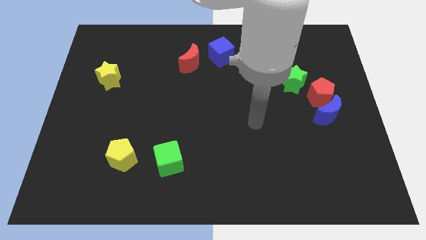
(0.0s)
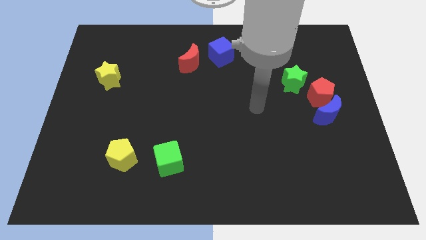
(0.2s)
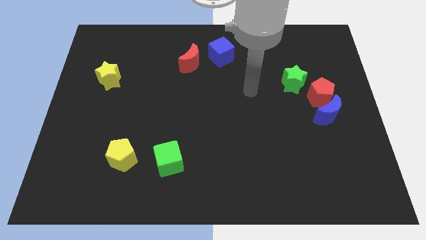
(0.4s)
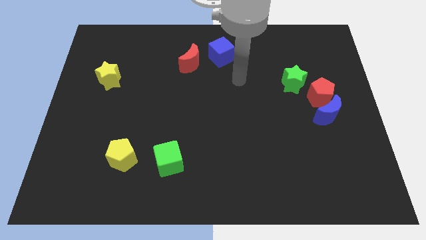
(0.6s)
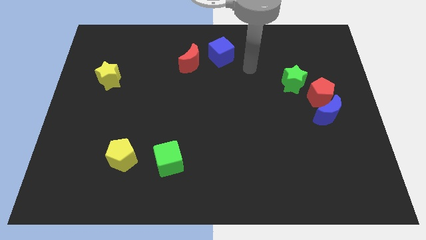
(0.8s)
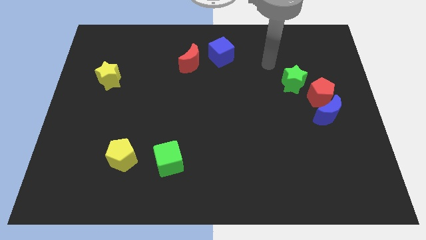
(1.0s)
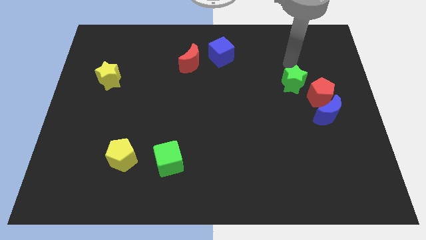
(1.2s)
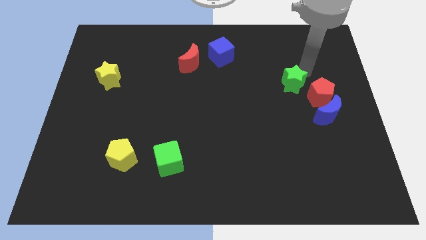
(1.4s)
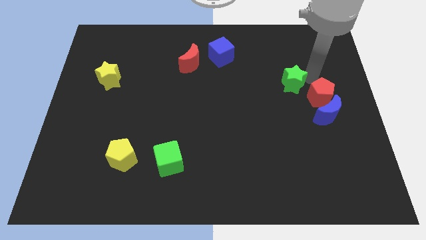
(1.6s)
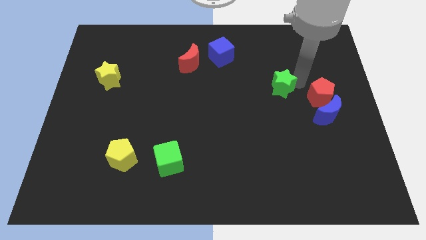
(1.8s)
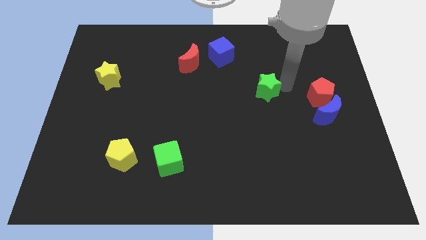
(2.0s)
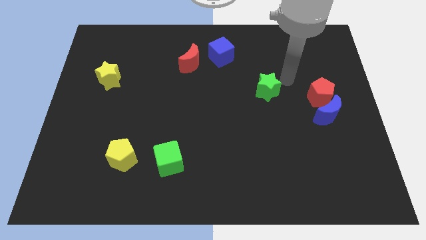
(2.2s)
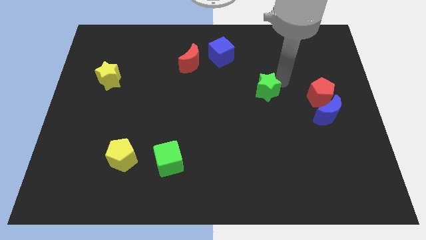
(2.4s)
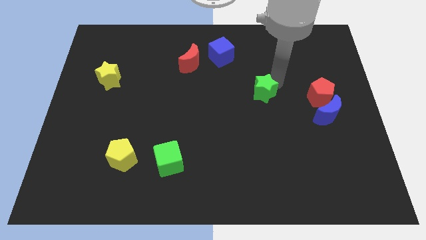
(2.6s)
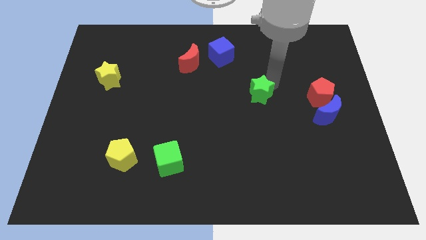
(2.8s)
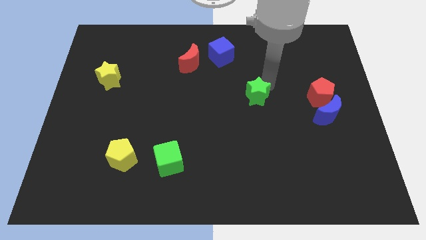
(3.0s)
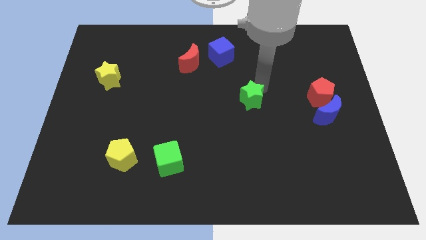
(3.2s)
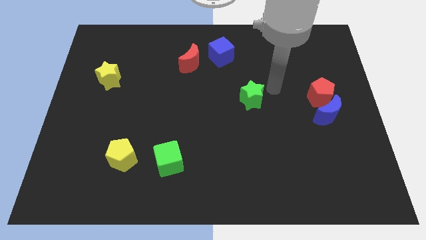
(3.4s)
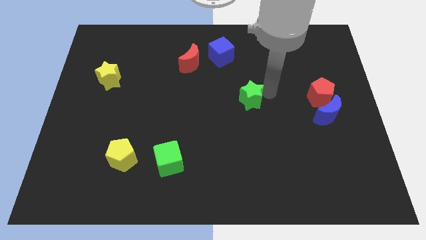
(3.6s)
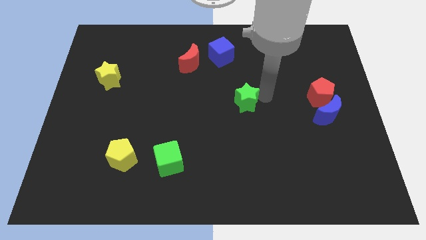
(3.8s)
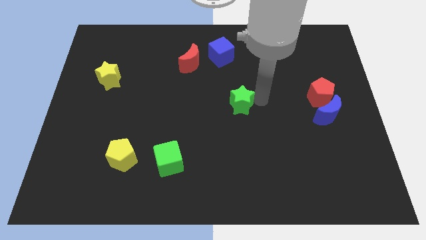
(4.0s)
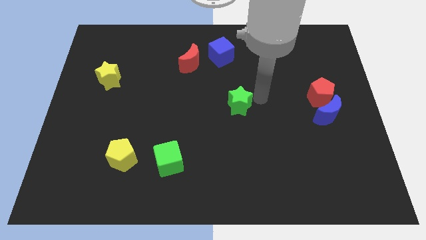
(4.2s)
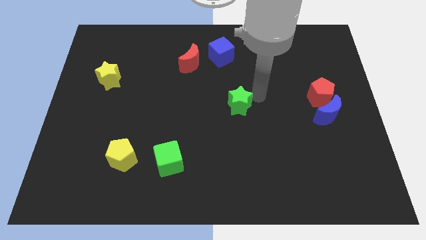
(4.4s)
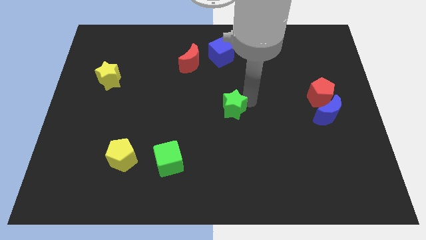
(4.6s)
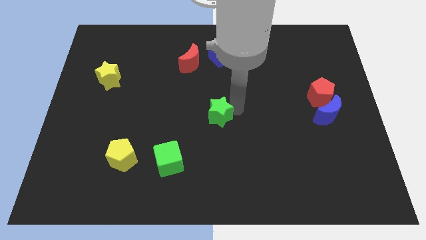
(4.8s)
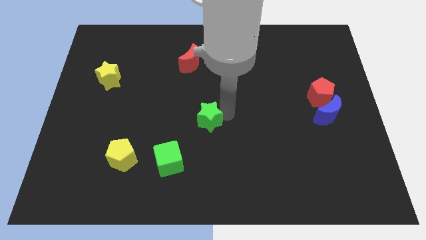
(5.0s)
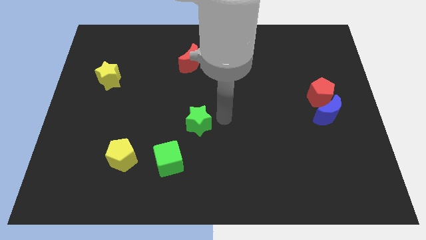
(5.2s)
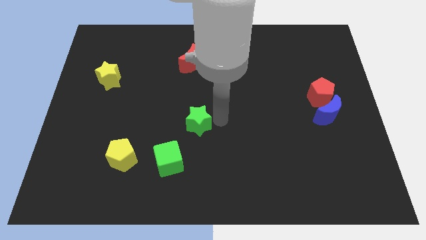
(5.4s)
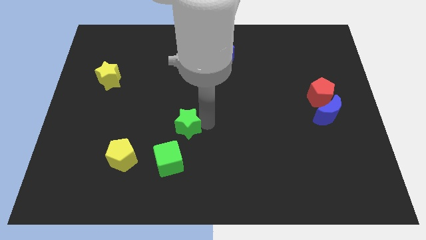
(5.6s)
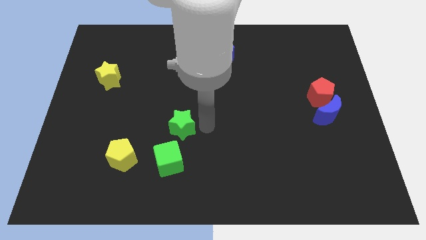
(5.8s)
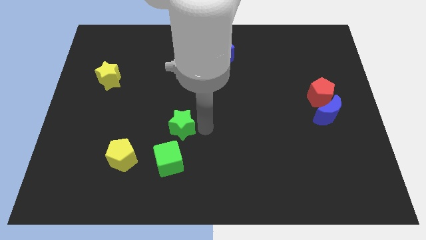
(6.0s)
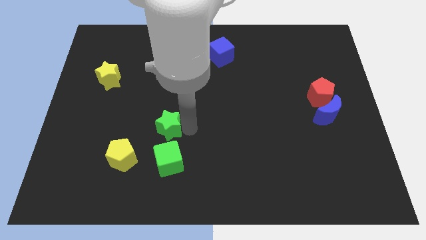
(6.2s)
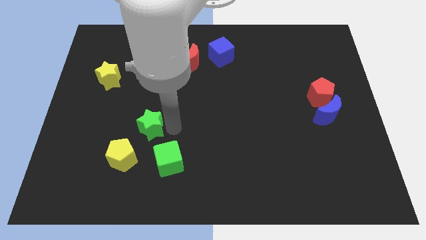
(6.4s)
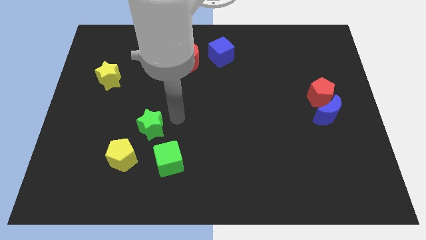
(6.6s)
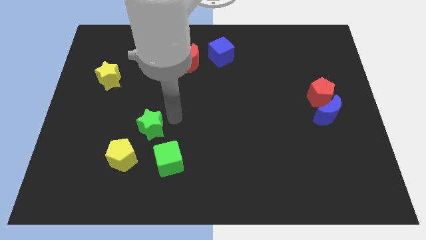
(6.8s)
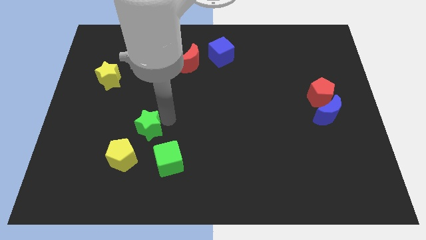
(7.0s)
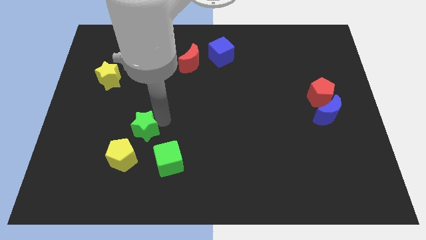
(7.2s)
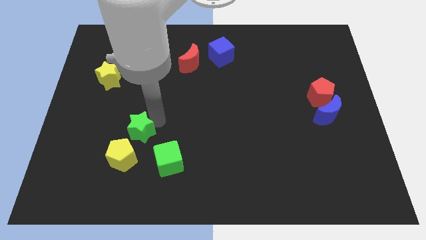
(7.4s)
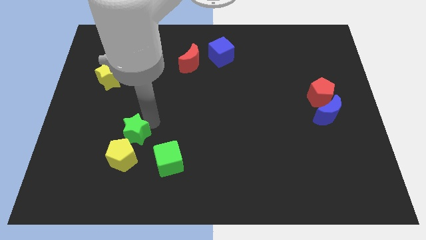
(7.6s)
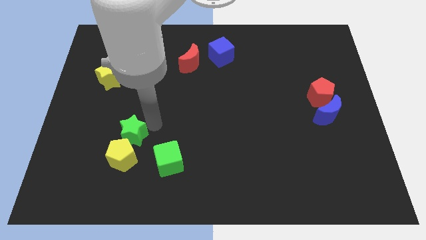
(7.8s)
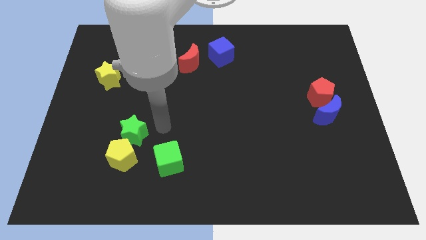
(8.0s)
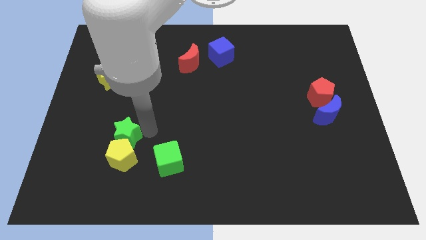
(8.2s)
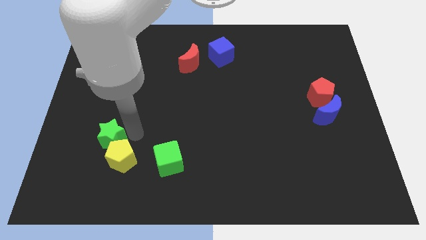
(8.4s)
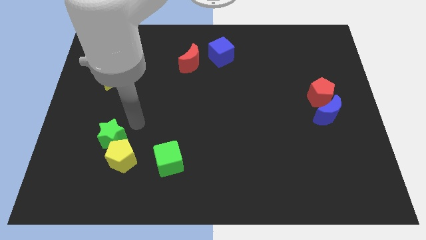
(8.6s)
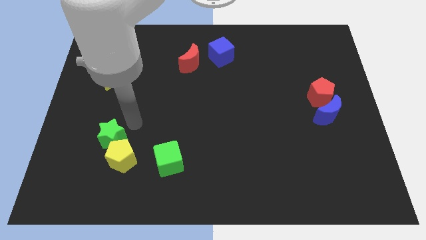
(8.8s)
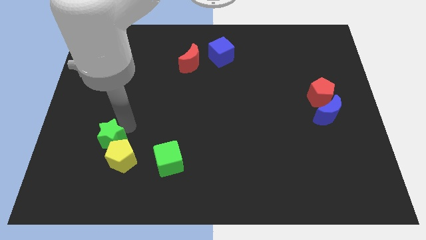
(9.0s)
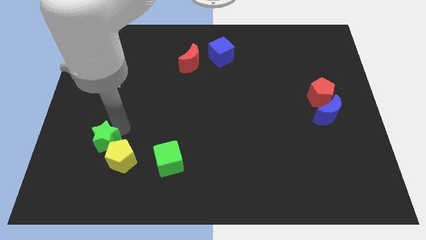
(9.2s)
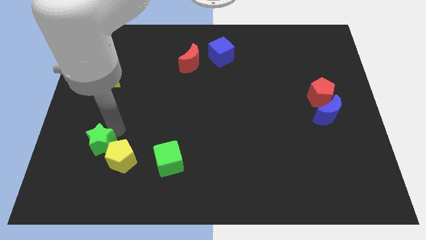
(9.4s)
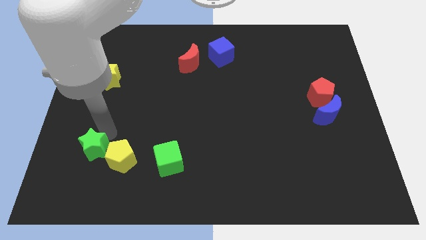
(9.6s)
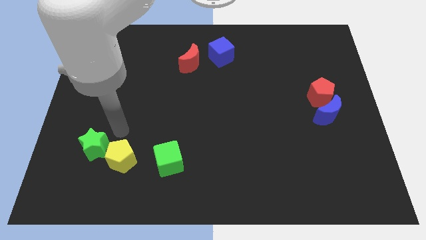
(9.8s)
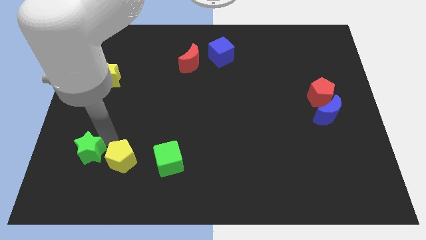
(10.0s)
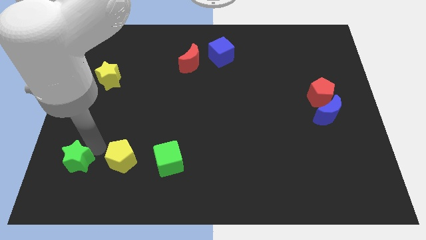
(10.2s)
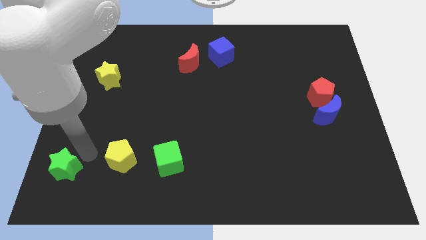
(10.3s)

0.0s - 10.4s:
slide the green star to the lower left corner
